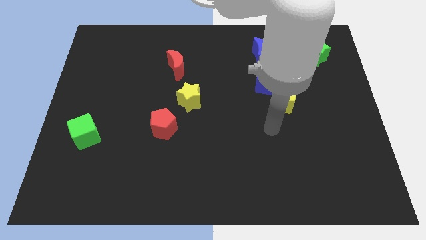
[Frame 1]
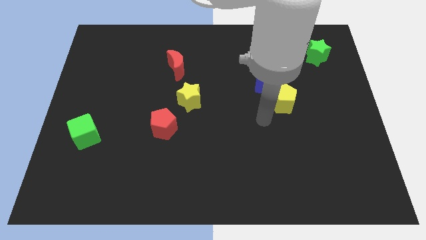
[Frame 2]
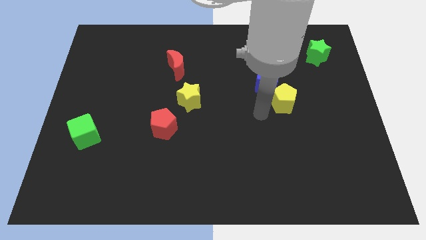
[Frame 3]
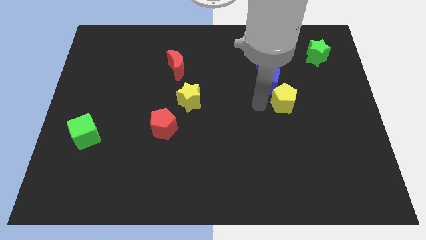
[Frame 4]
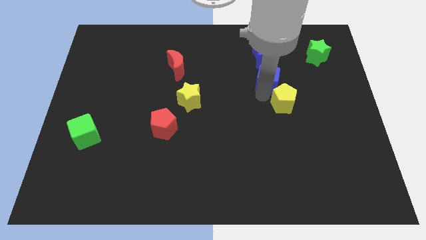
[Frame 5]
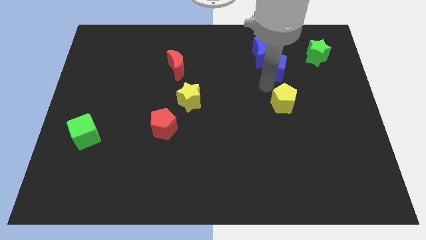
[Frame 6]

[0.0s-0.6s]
move the yellow pentagon away from the blue cube

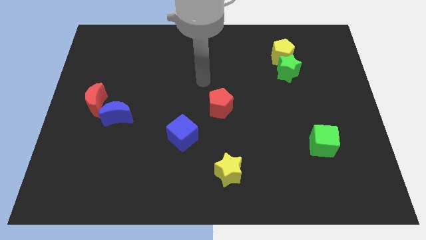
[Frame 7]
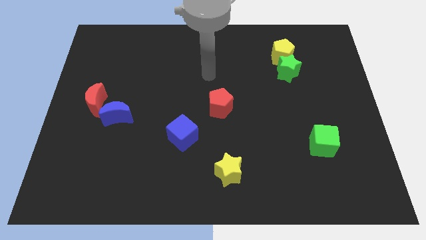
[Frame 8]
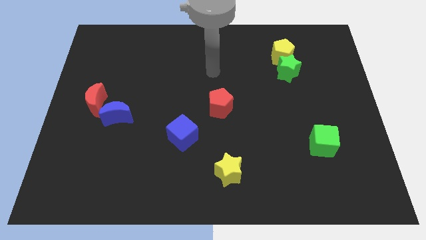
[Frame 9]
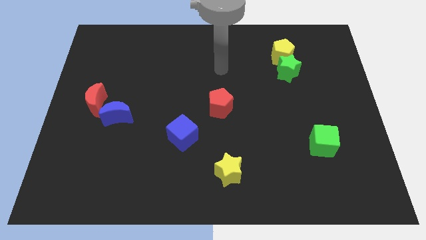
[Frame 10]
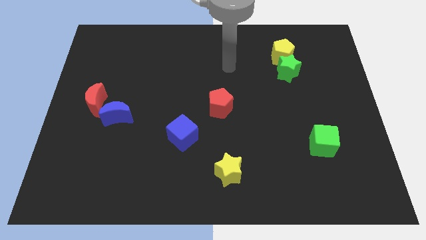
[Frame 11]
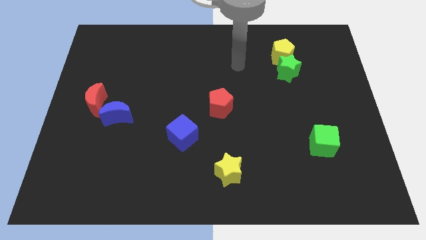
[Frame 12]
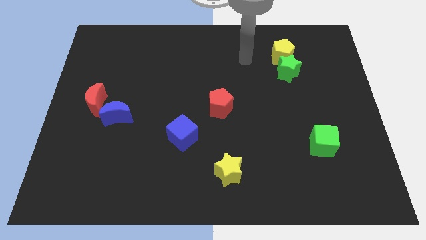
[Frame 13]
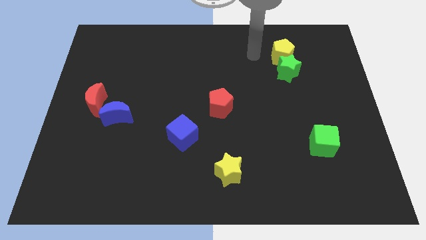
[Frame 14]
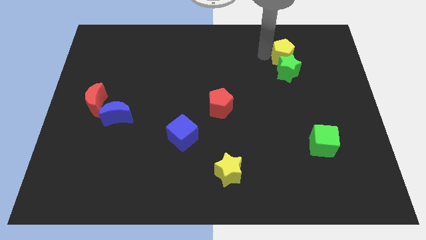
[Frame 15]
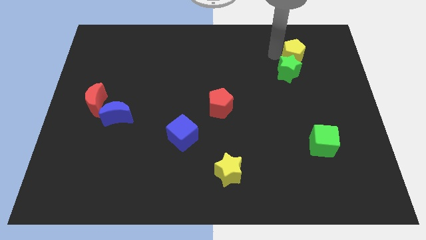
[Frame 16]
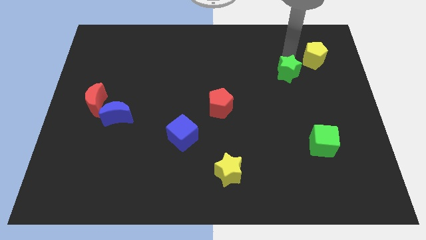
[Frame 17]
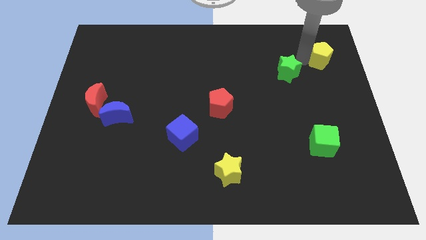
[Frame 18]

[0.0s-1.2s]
separate the green star from the yellow pentagon

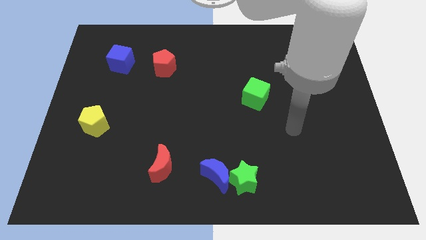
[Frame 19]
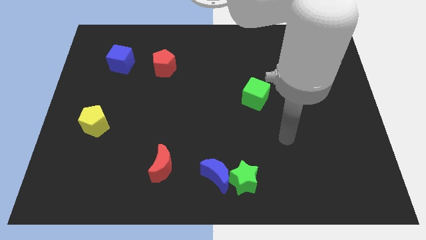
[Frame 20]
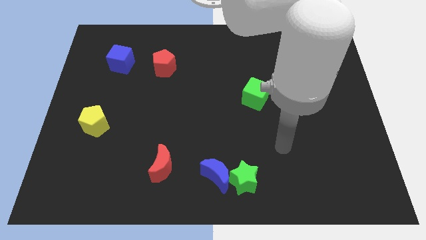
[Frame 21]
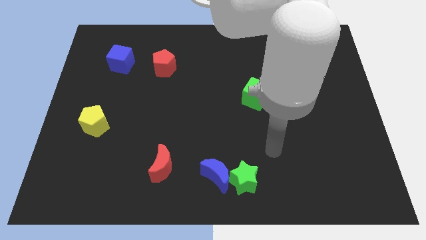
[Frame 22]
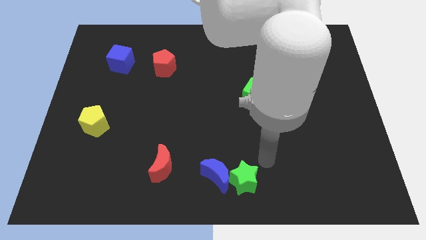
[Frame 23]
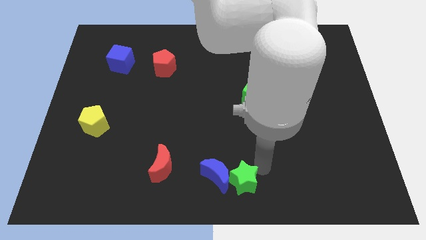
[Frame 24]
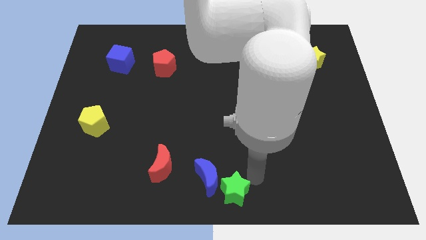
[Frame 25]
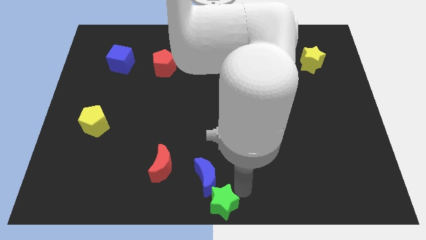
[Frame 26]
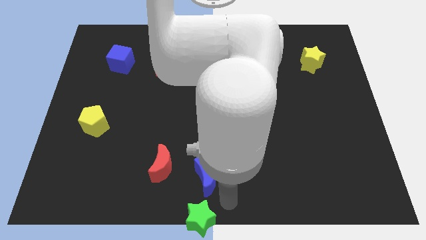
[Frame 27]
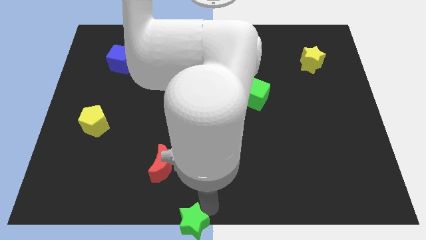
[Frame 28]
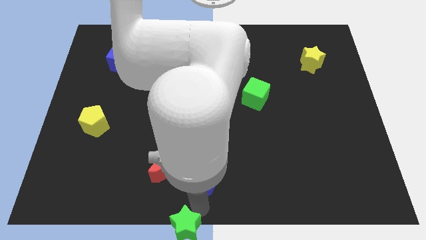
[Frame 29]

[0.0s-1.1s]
separate the blue moon from the green star

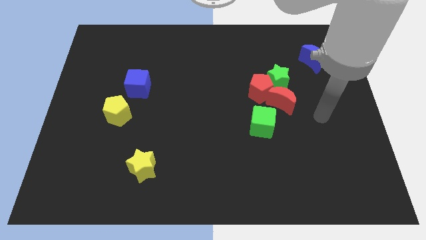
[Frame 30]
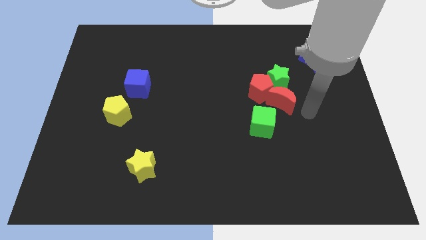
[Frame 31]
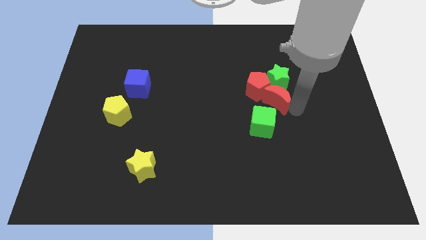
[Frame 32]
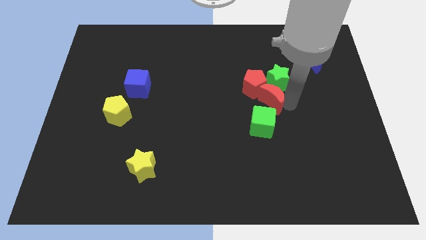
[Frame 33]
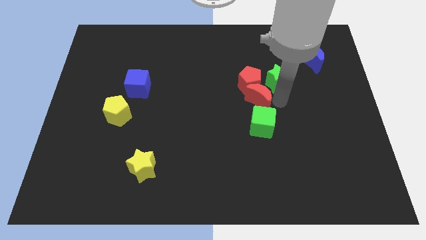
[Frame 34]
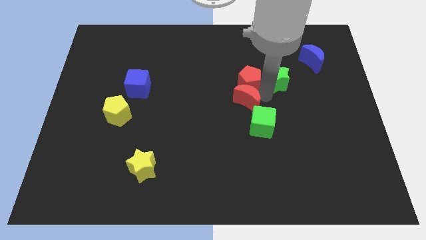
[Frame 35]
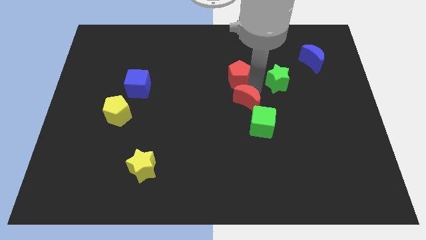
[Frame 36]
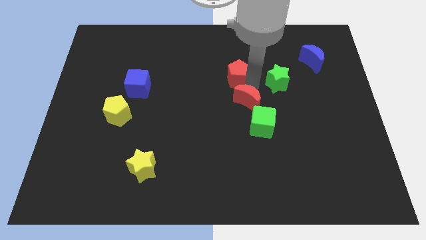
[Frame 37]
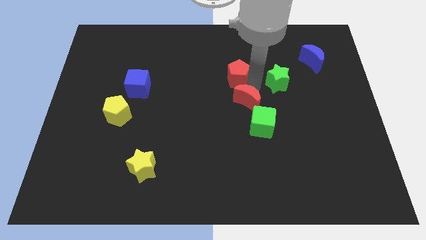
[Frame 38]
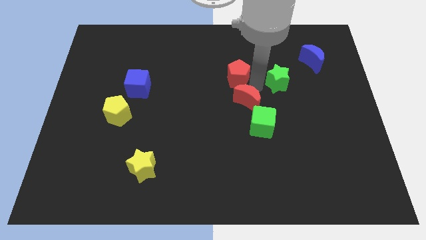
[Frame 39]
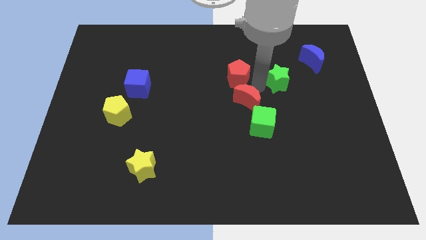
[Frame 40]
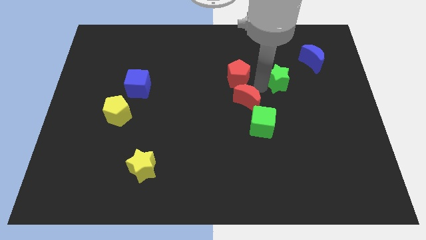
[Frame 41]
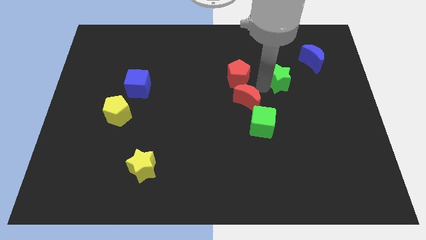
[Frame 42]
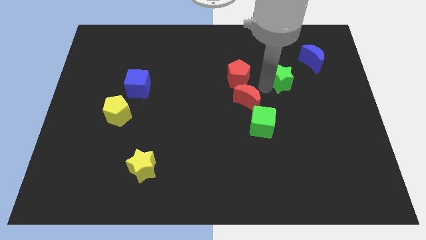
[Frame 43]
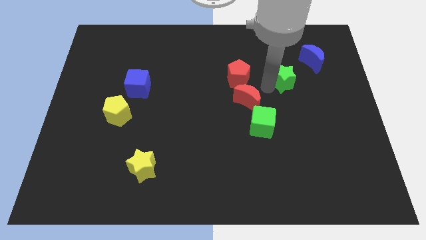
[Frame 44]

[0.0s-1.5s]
pull the green star apart from the red pentagon and red moon

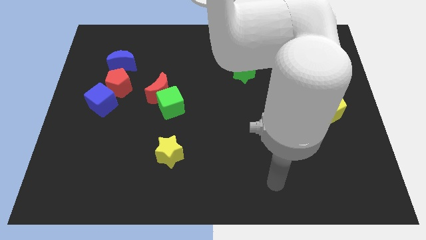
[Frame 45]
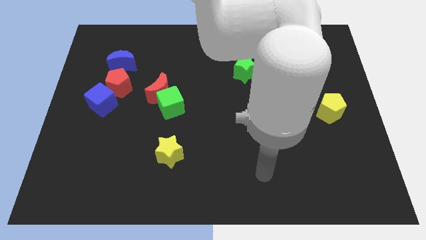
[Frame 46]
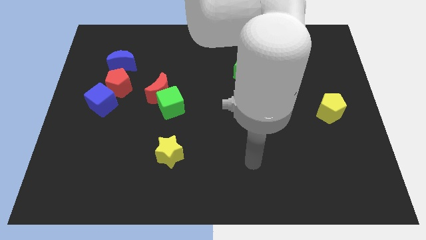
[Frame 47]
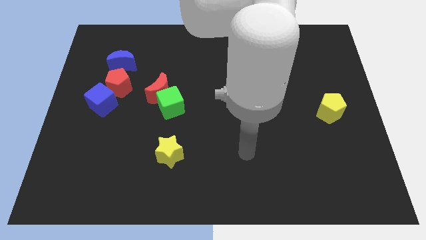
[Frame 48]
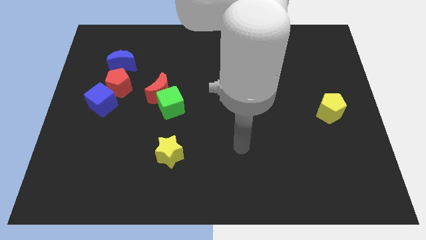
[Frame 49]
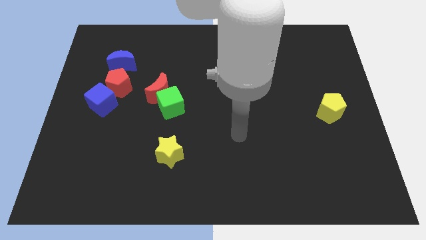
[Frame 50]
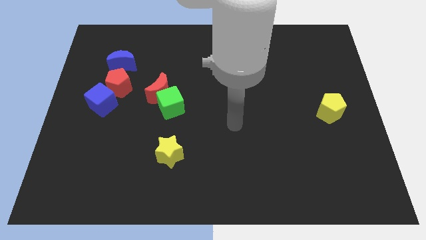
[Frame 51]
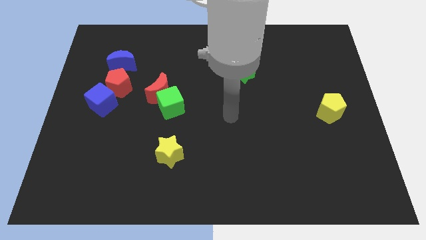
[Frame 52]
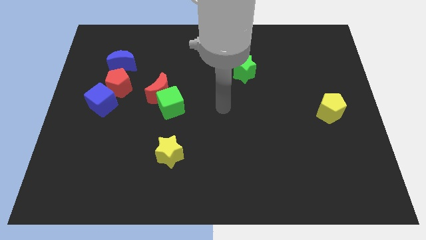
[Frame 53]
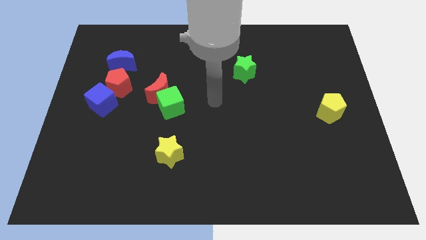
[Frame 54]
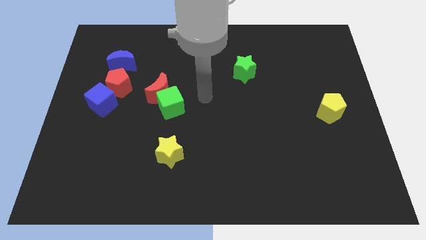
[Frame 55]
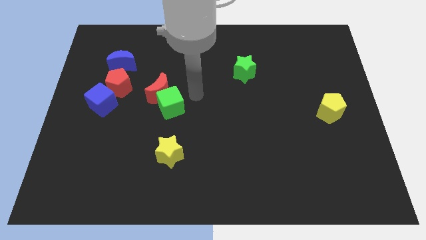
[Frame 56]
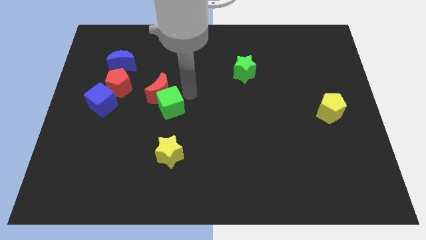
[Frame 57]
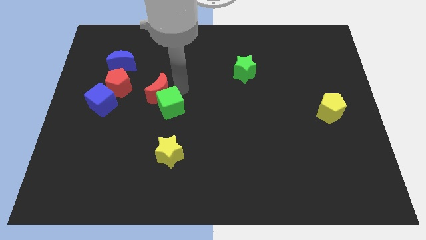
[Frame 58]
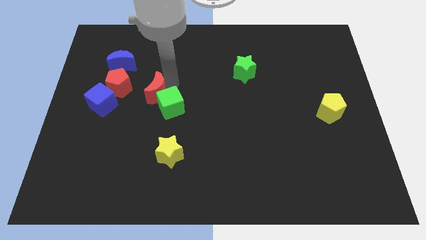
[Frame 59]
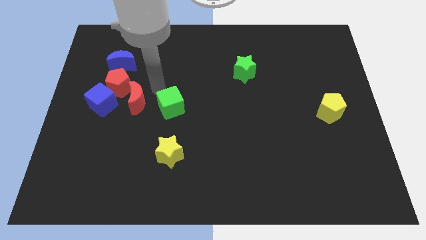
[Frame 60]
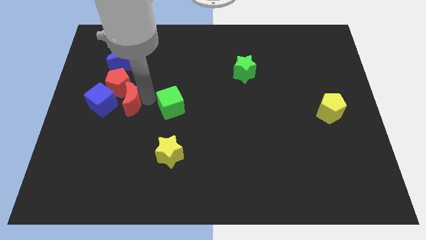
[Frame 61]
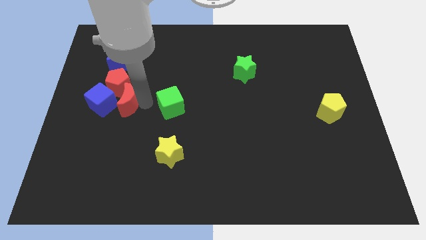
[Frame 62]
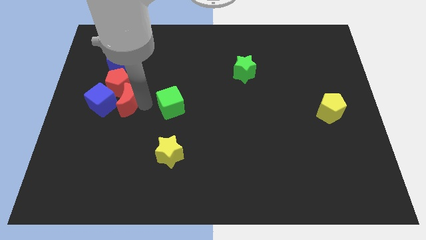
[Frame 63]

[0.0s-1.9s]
move the green cube away from the red moon

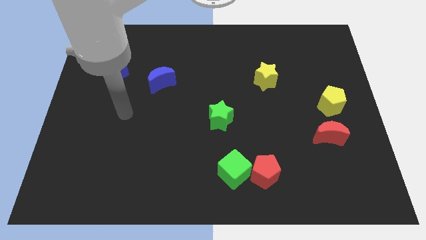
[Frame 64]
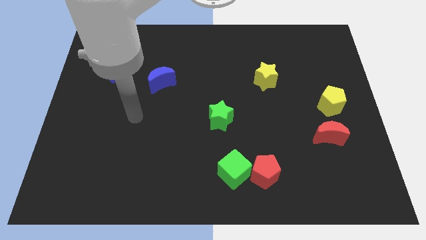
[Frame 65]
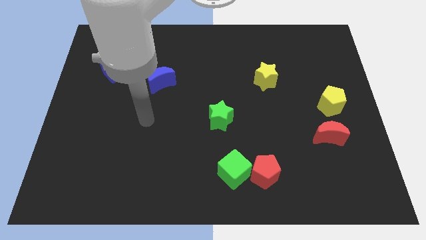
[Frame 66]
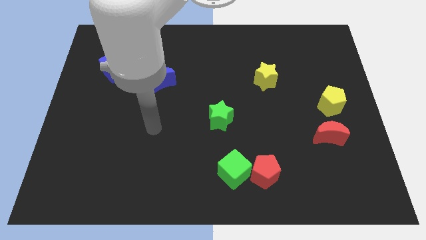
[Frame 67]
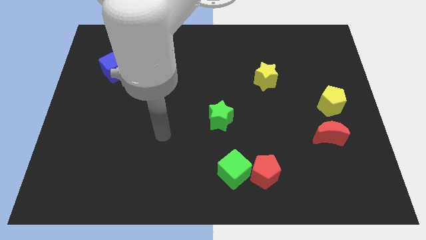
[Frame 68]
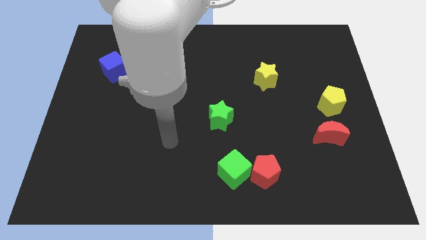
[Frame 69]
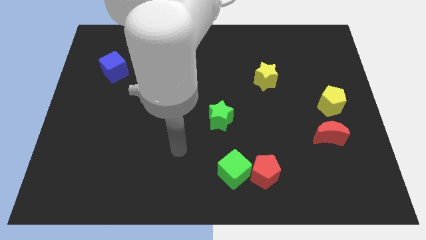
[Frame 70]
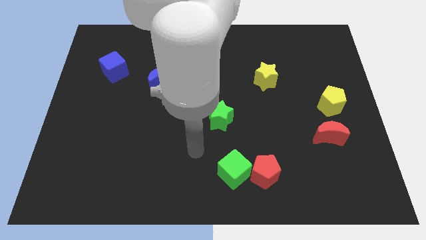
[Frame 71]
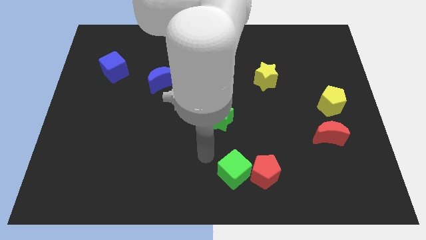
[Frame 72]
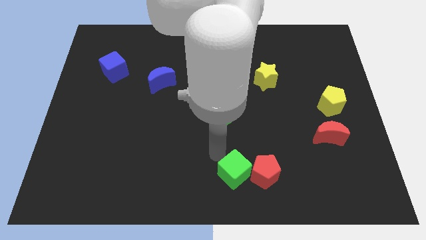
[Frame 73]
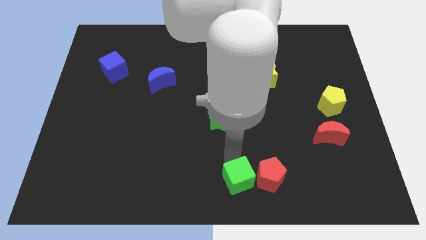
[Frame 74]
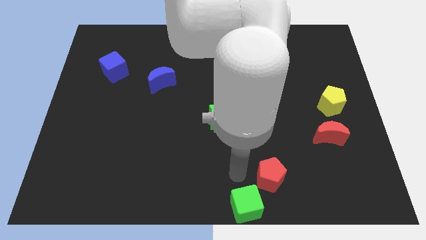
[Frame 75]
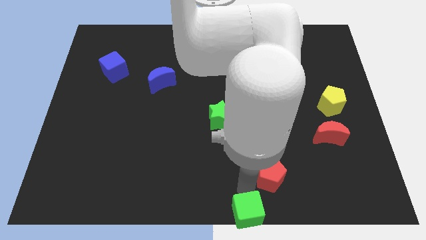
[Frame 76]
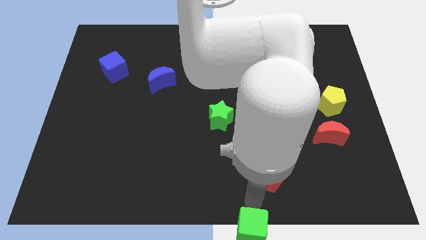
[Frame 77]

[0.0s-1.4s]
move the red pentagon away from the green cube

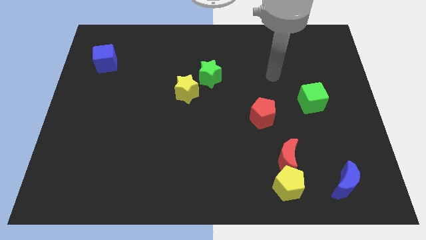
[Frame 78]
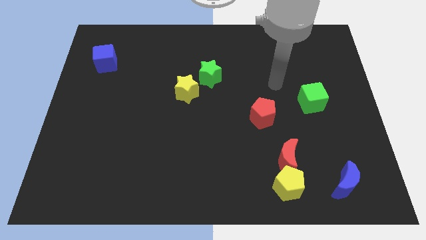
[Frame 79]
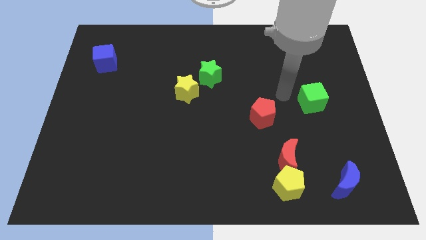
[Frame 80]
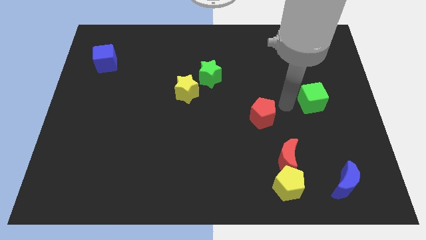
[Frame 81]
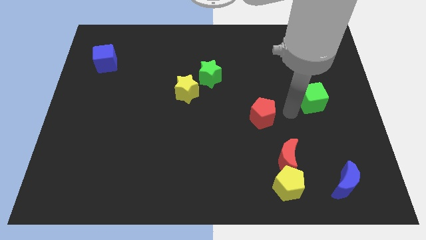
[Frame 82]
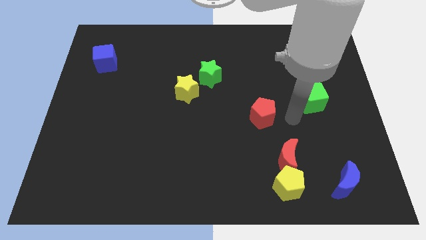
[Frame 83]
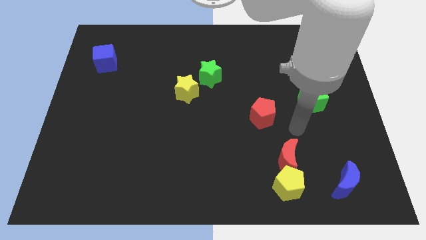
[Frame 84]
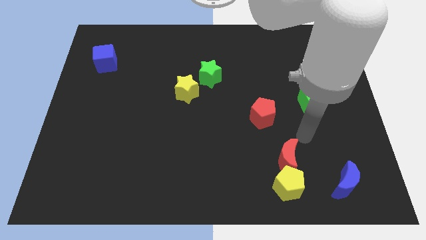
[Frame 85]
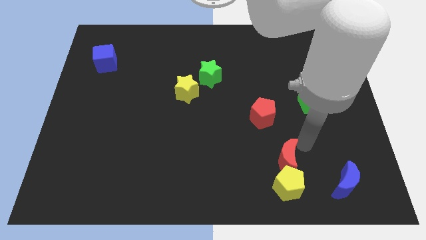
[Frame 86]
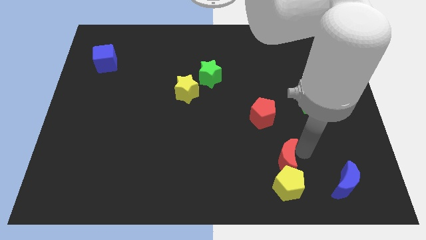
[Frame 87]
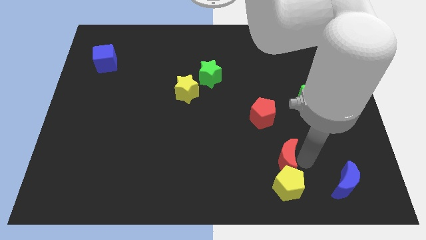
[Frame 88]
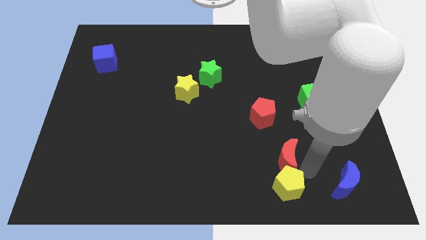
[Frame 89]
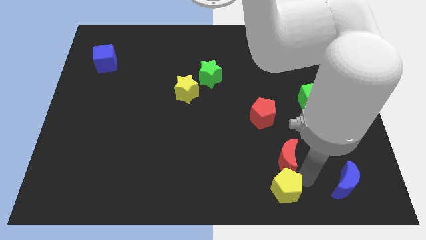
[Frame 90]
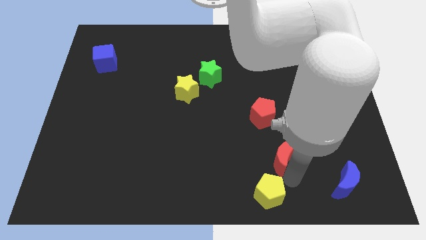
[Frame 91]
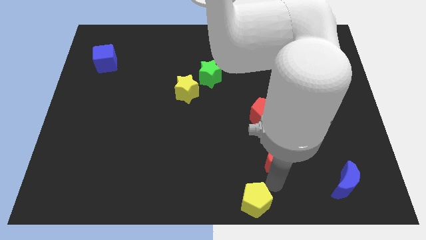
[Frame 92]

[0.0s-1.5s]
pull the red moon apart from the yellow pentagon
